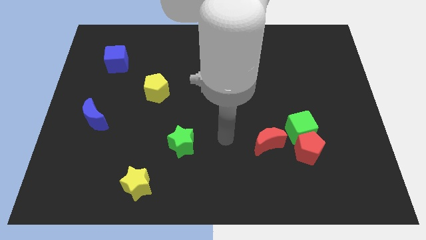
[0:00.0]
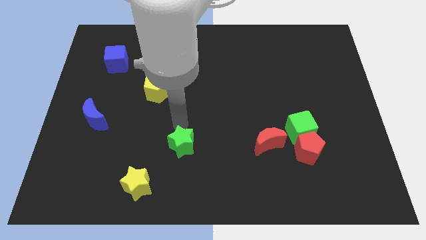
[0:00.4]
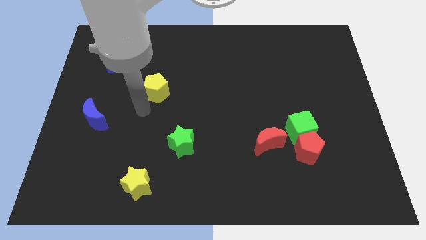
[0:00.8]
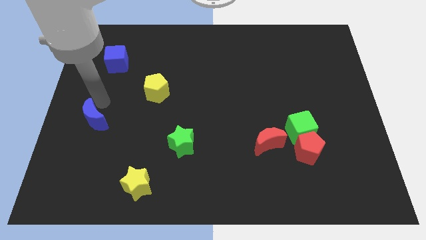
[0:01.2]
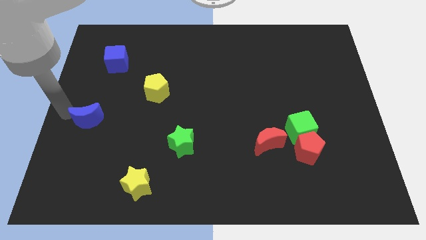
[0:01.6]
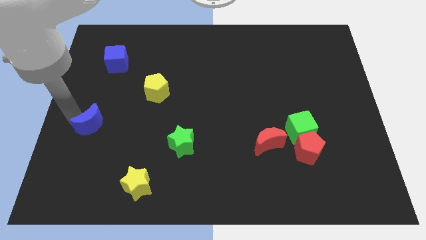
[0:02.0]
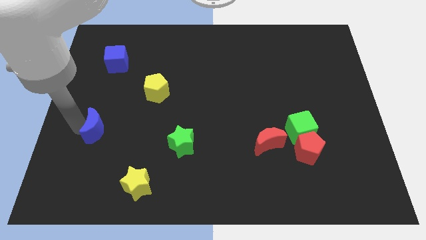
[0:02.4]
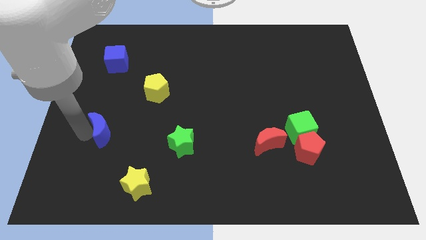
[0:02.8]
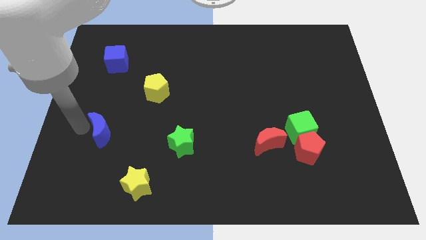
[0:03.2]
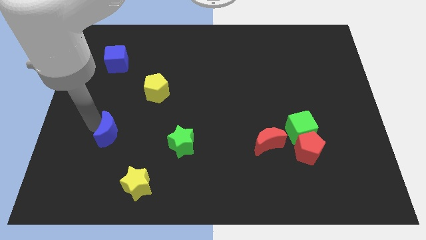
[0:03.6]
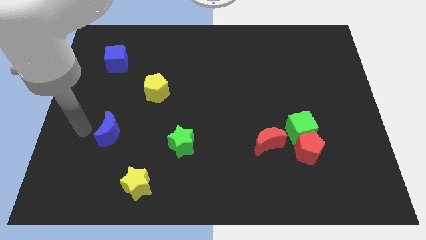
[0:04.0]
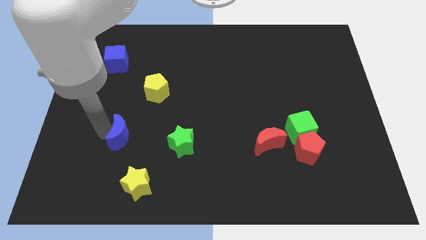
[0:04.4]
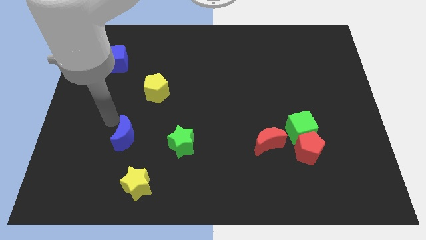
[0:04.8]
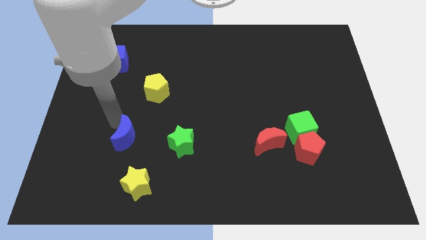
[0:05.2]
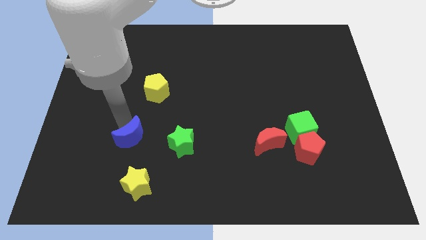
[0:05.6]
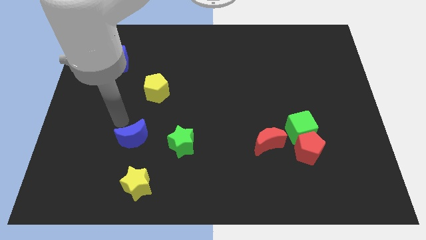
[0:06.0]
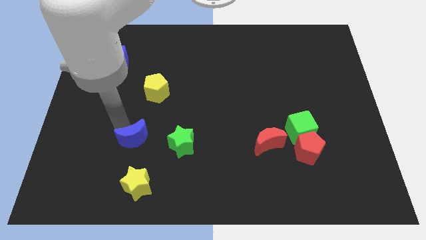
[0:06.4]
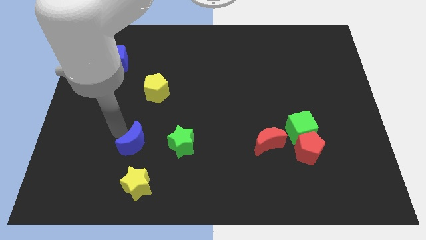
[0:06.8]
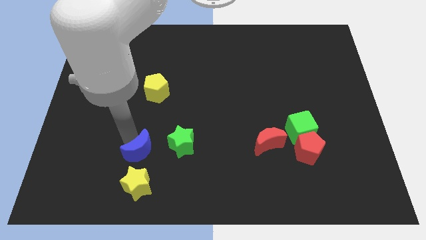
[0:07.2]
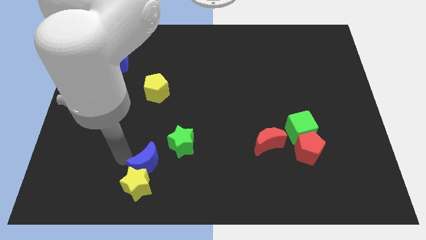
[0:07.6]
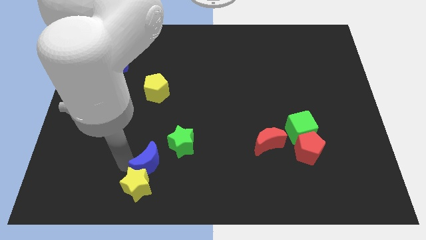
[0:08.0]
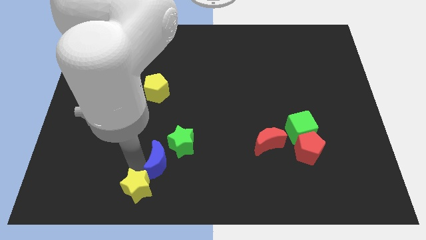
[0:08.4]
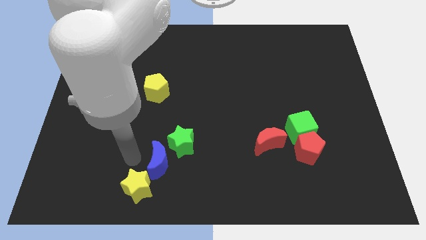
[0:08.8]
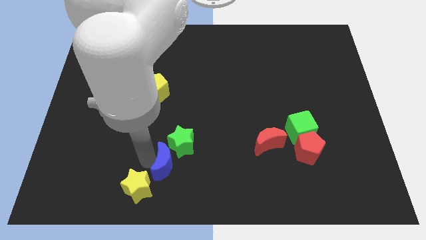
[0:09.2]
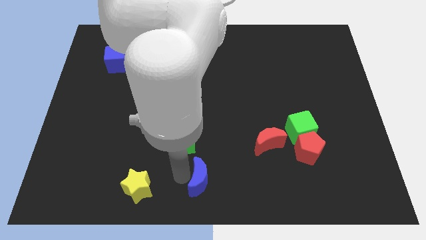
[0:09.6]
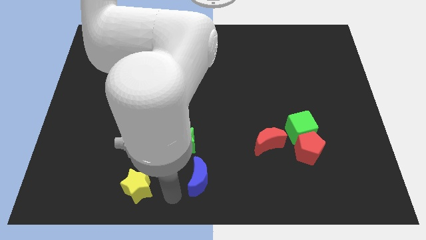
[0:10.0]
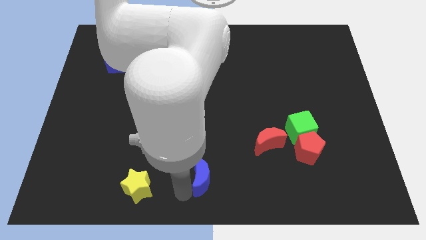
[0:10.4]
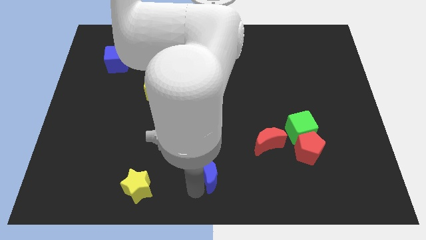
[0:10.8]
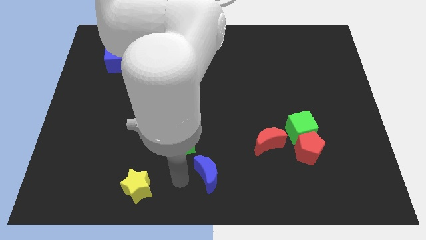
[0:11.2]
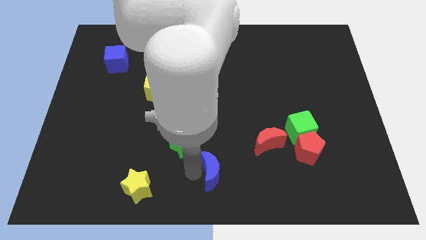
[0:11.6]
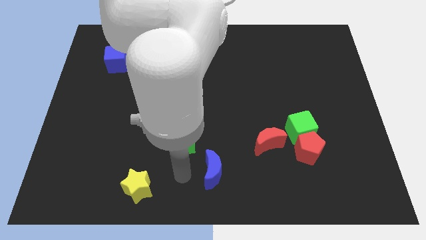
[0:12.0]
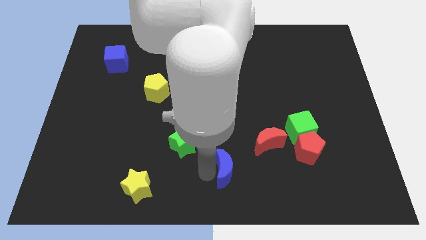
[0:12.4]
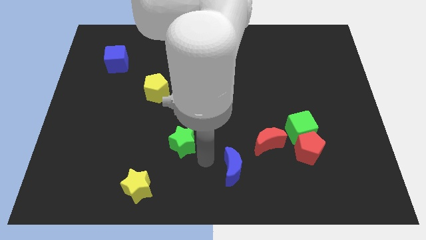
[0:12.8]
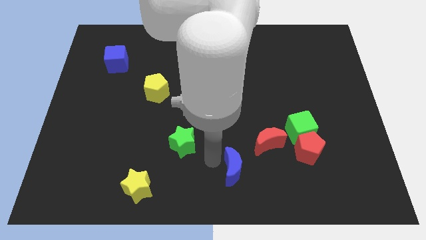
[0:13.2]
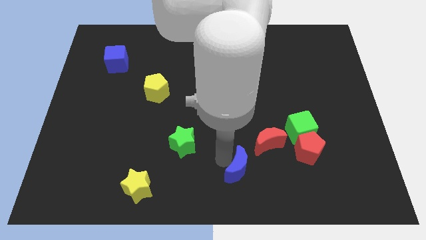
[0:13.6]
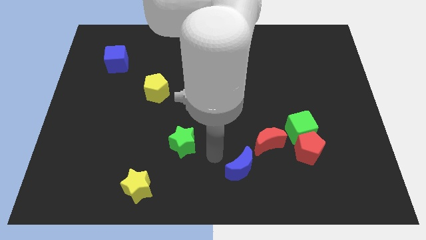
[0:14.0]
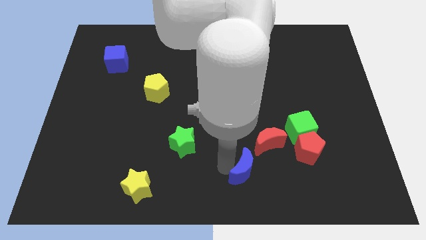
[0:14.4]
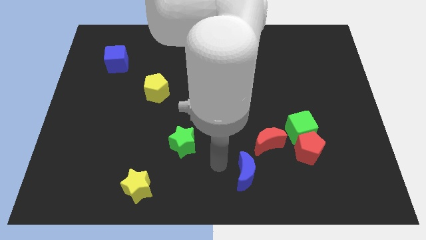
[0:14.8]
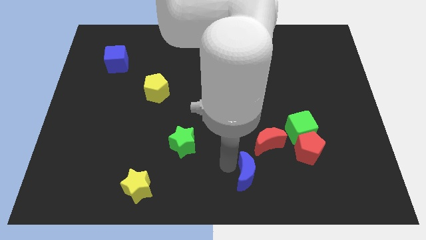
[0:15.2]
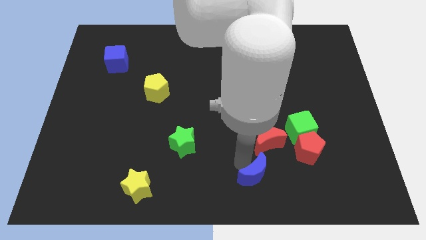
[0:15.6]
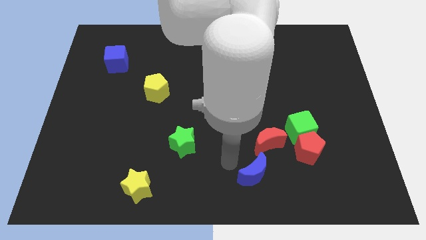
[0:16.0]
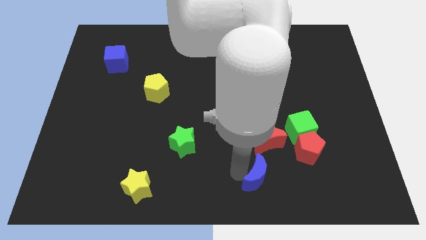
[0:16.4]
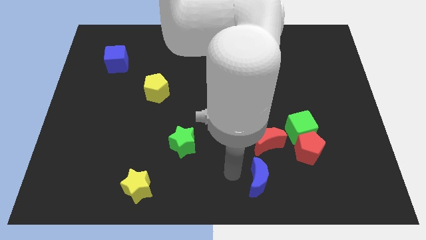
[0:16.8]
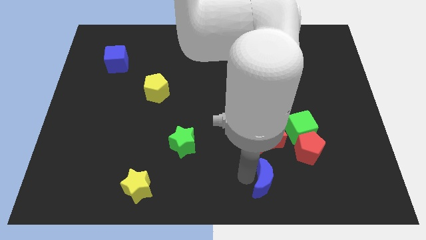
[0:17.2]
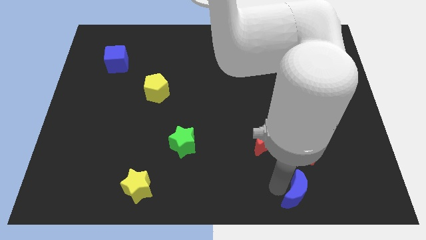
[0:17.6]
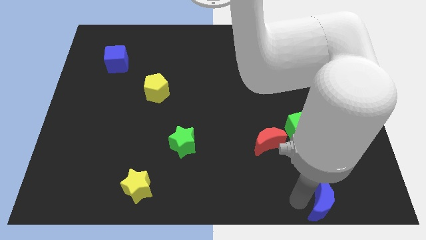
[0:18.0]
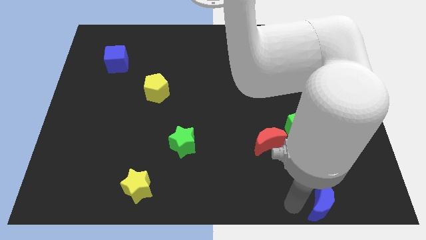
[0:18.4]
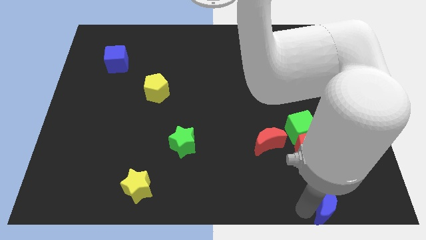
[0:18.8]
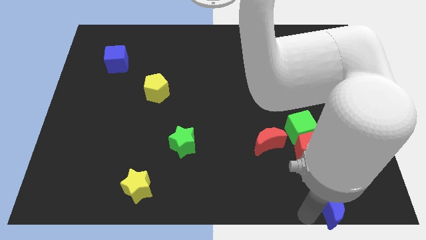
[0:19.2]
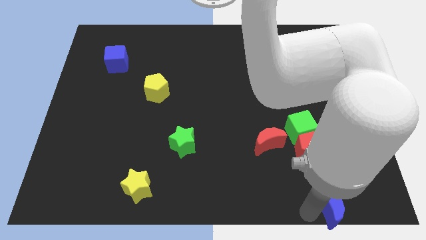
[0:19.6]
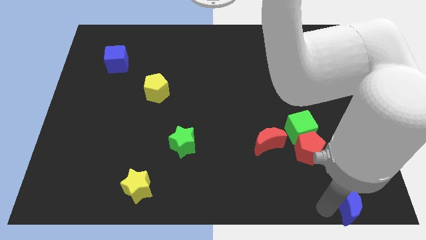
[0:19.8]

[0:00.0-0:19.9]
move the blue moon to the bottom right corner

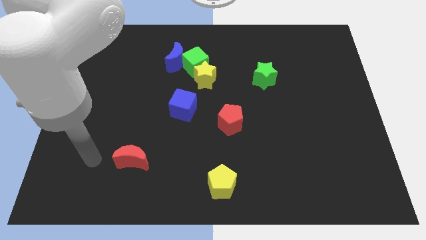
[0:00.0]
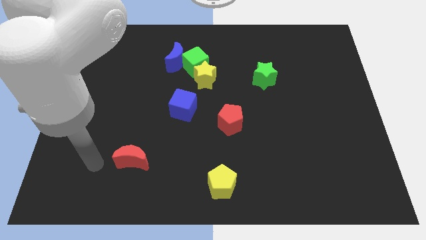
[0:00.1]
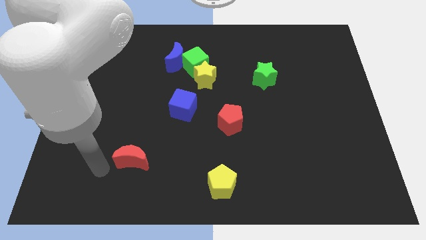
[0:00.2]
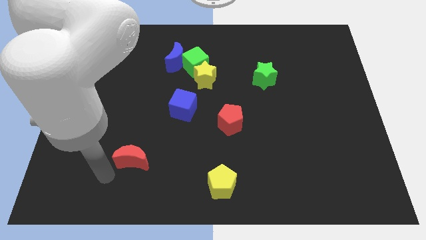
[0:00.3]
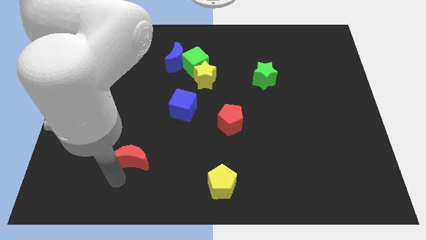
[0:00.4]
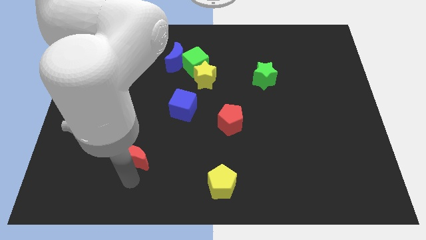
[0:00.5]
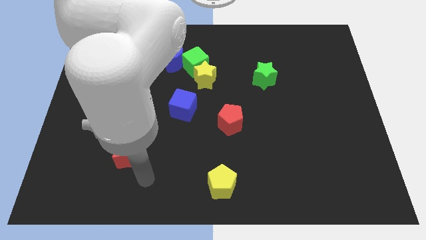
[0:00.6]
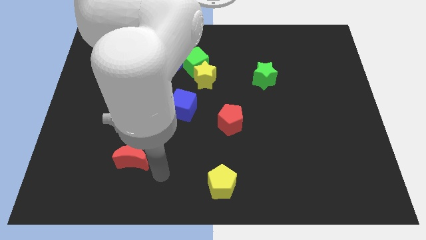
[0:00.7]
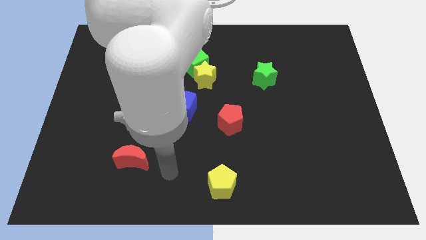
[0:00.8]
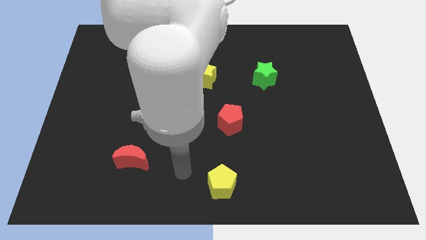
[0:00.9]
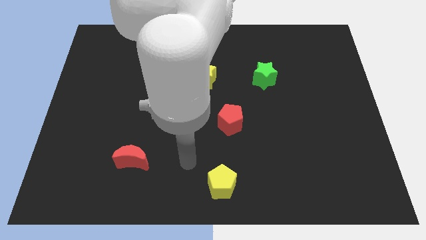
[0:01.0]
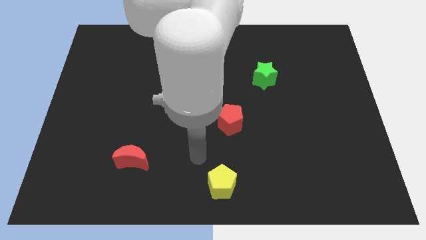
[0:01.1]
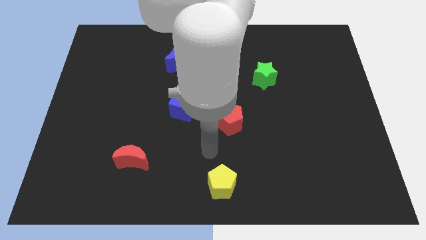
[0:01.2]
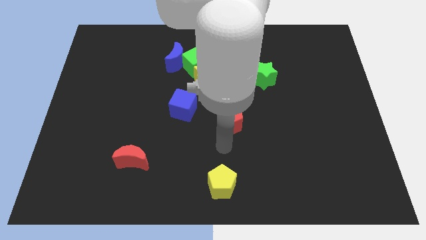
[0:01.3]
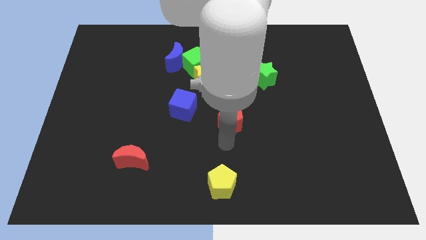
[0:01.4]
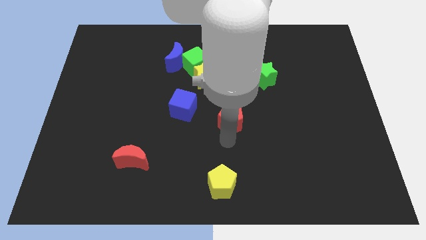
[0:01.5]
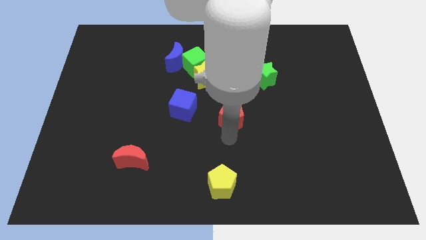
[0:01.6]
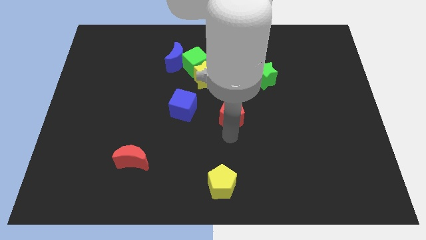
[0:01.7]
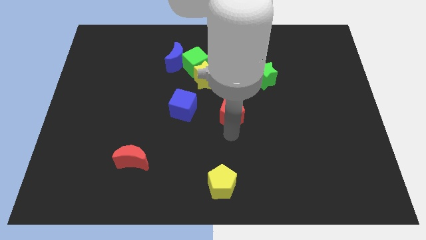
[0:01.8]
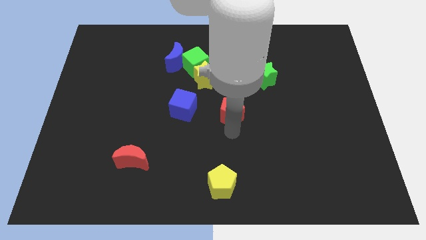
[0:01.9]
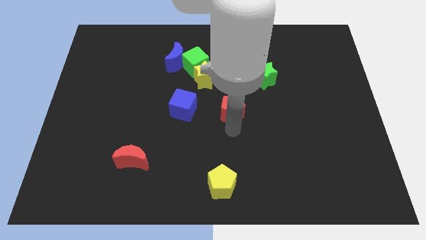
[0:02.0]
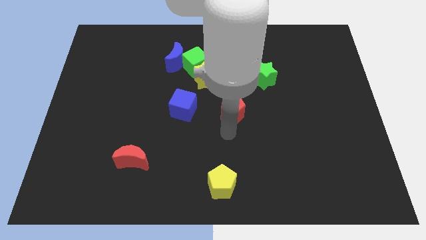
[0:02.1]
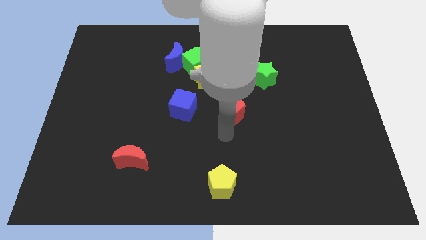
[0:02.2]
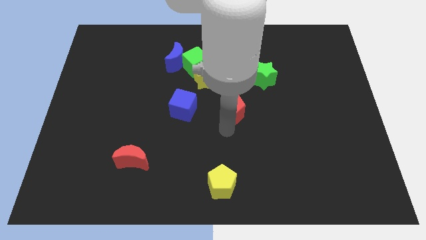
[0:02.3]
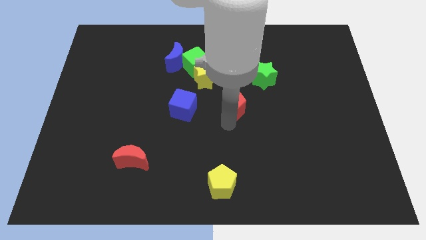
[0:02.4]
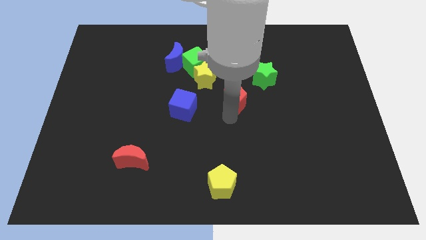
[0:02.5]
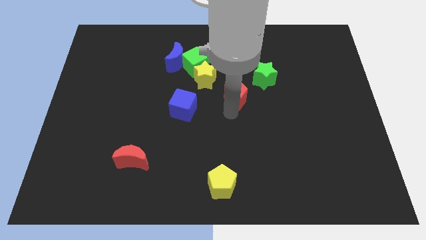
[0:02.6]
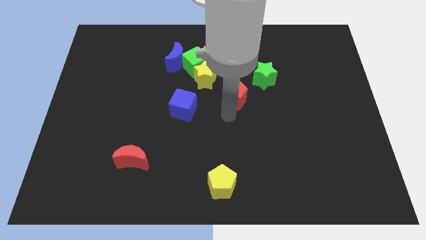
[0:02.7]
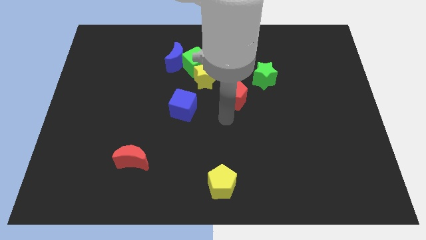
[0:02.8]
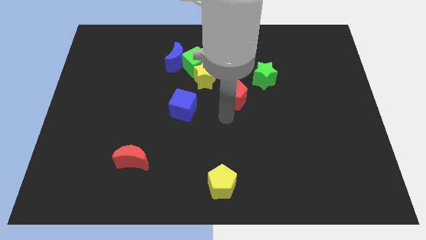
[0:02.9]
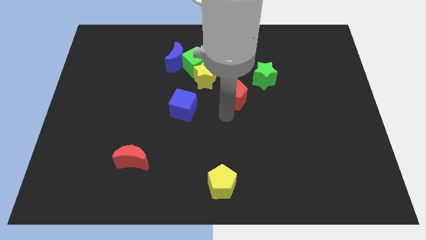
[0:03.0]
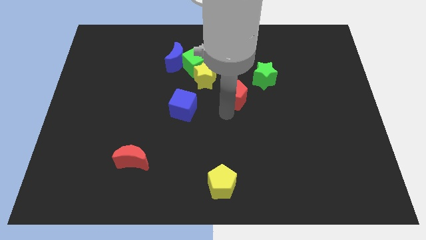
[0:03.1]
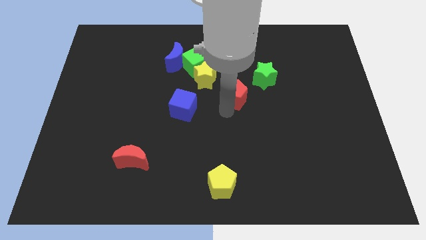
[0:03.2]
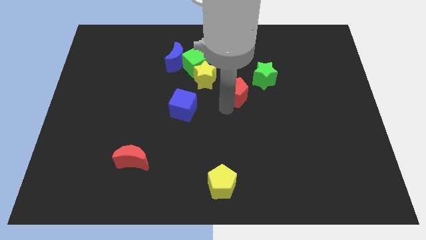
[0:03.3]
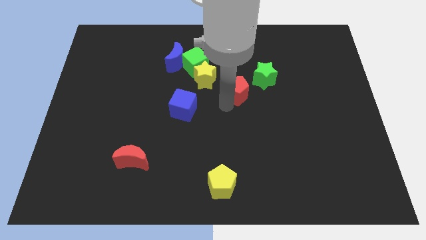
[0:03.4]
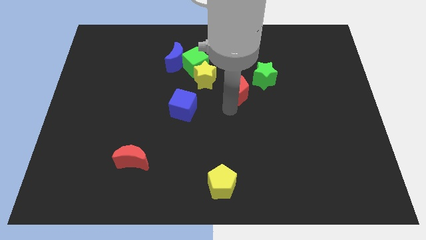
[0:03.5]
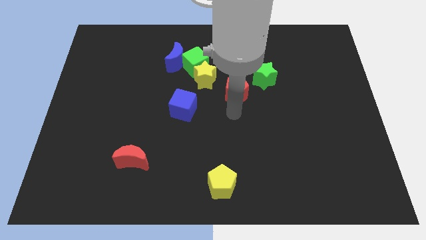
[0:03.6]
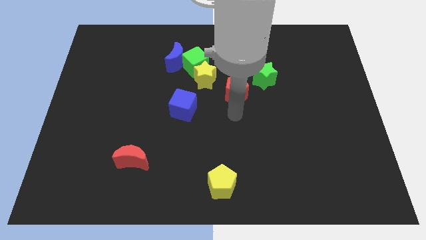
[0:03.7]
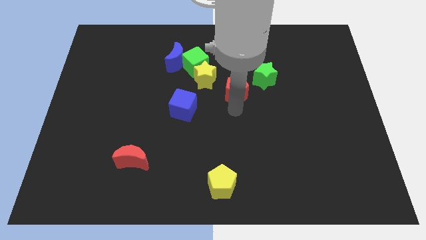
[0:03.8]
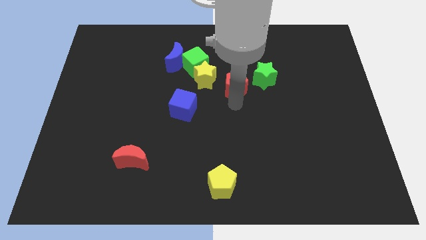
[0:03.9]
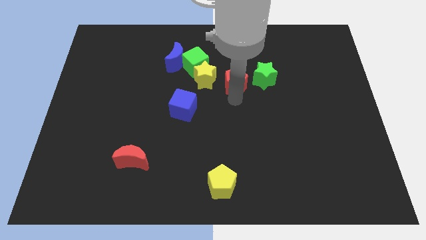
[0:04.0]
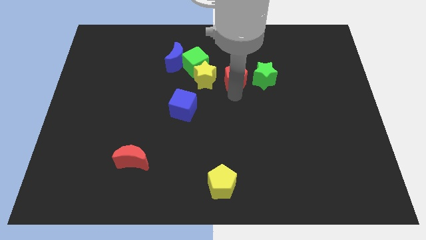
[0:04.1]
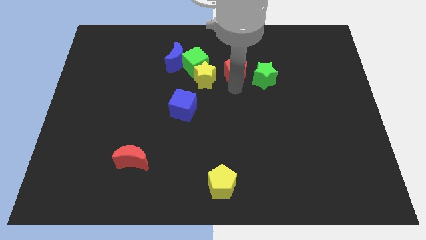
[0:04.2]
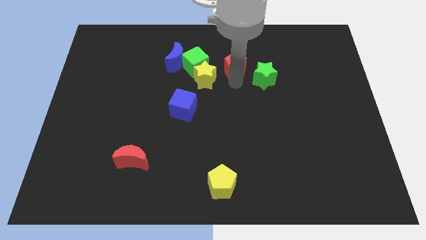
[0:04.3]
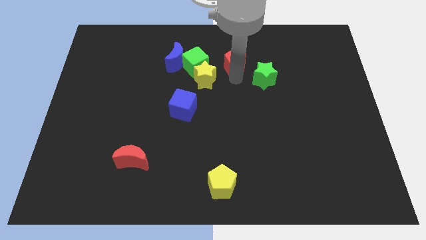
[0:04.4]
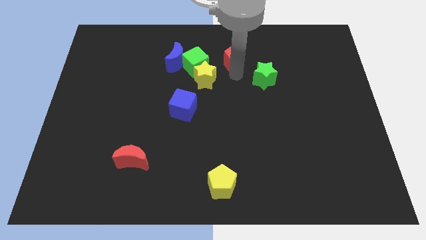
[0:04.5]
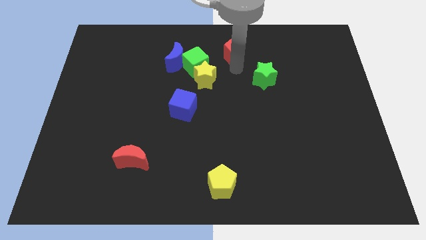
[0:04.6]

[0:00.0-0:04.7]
put the red pentagon to the top
